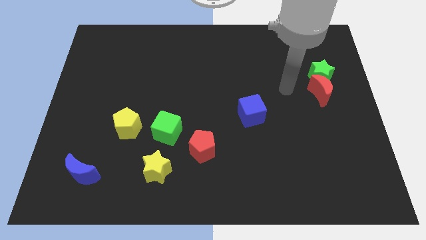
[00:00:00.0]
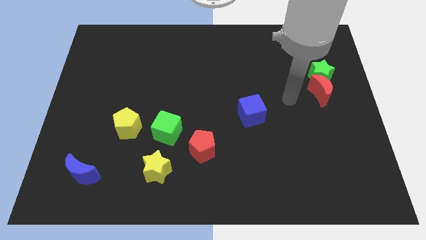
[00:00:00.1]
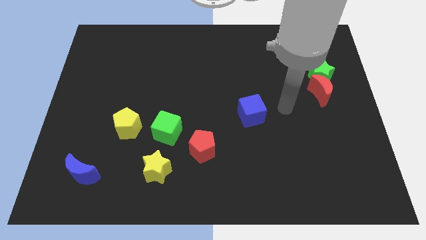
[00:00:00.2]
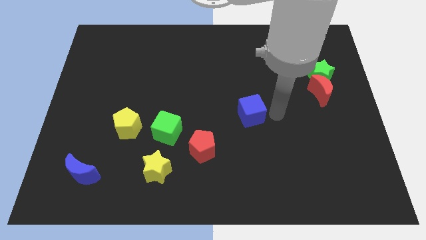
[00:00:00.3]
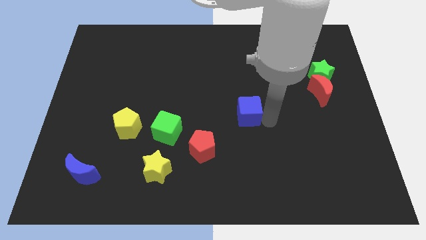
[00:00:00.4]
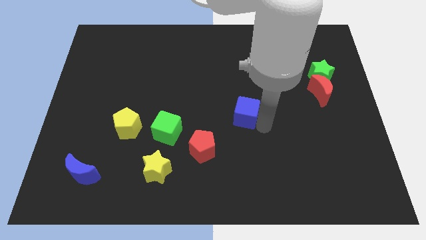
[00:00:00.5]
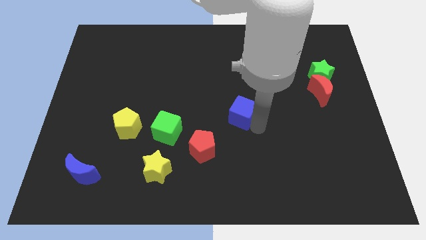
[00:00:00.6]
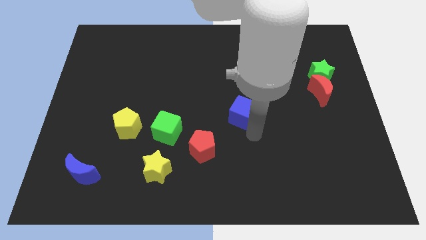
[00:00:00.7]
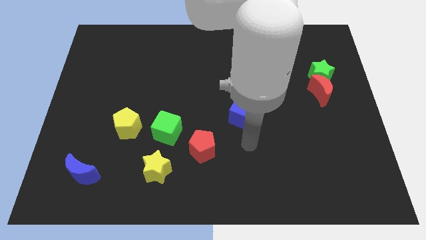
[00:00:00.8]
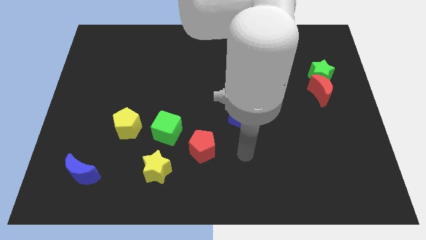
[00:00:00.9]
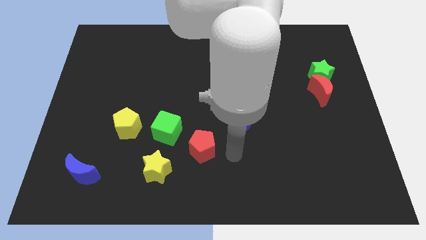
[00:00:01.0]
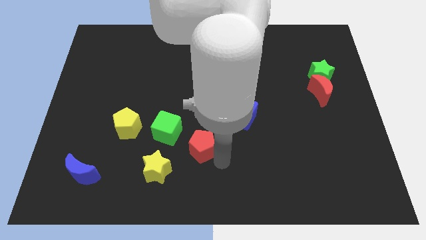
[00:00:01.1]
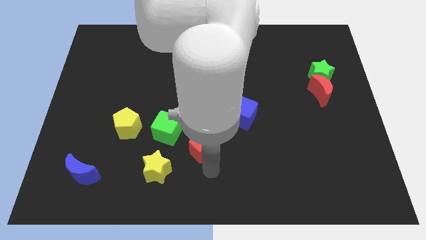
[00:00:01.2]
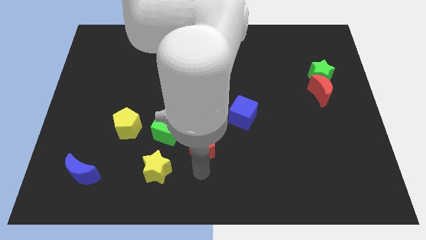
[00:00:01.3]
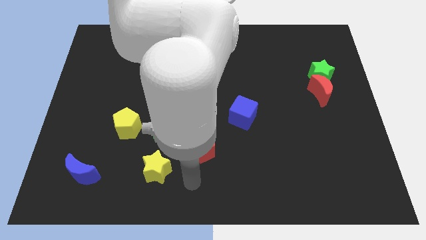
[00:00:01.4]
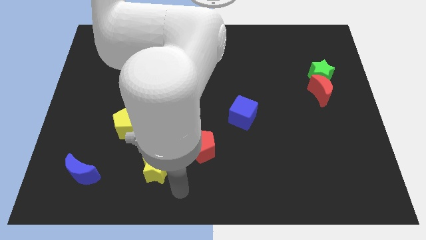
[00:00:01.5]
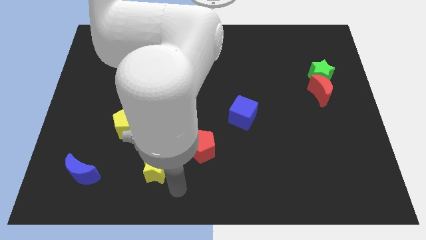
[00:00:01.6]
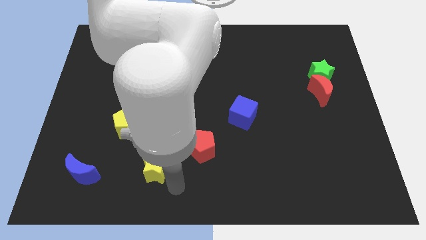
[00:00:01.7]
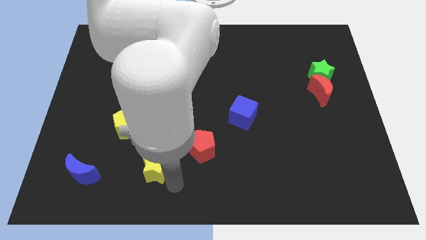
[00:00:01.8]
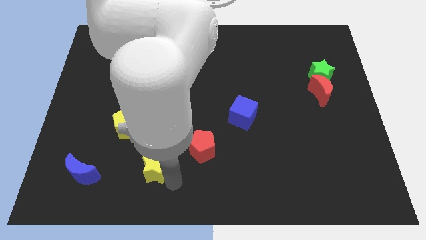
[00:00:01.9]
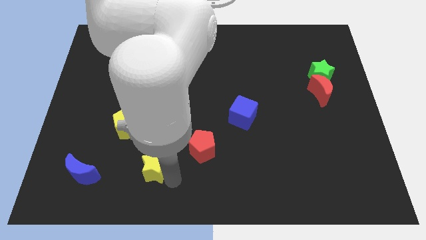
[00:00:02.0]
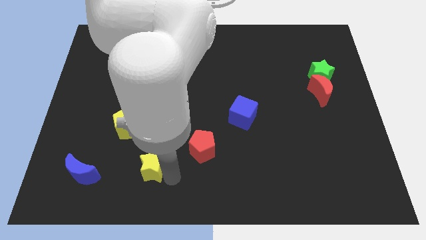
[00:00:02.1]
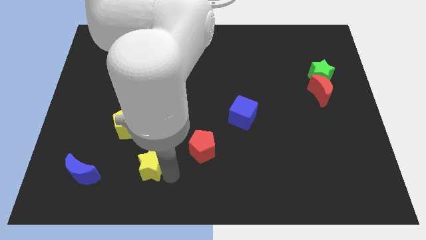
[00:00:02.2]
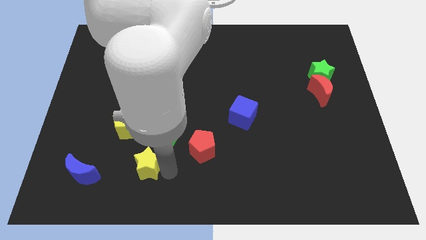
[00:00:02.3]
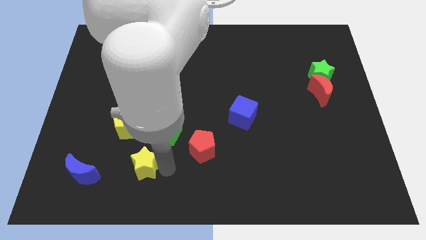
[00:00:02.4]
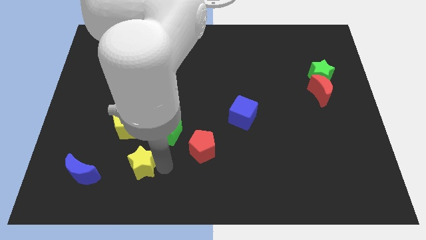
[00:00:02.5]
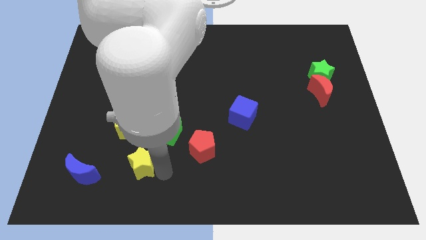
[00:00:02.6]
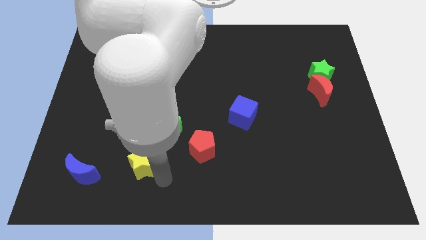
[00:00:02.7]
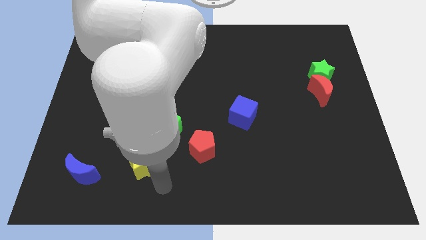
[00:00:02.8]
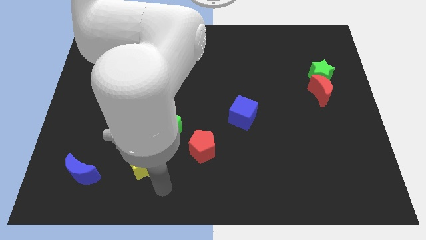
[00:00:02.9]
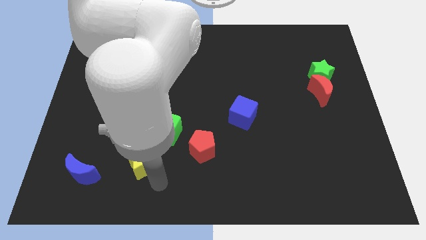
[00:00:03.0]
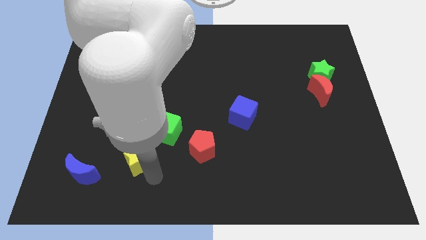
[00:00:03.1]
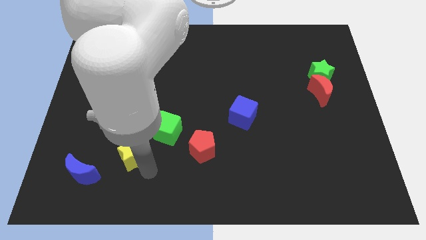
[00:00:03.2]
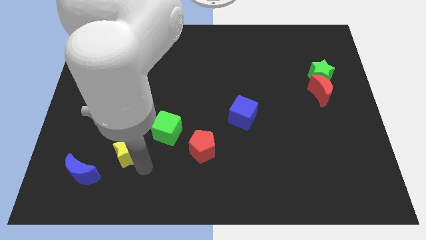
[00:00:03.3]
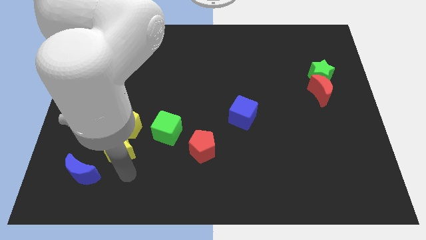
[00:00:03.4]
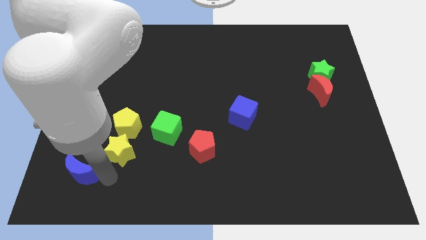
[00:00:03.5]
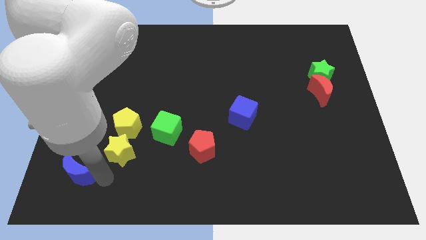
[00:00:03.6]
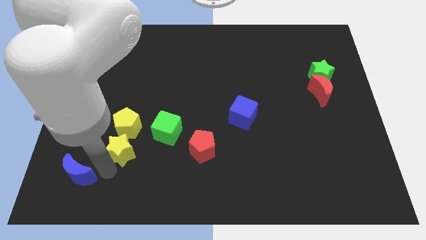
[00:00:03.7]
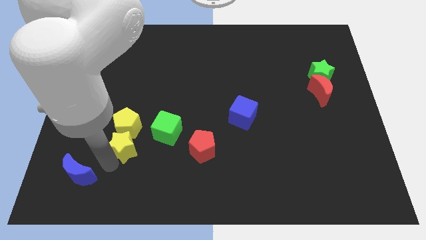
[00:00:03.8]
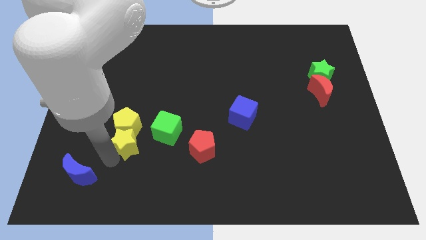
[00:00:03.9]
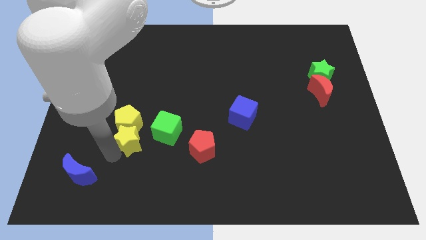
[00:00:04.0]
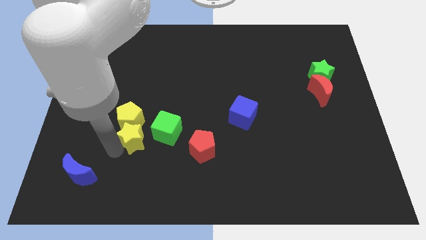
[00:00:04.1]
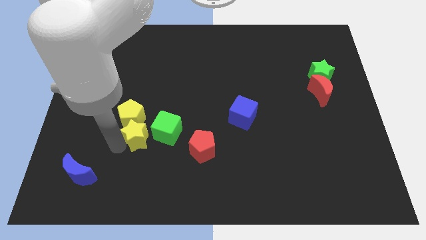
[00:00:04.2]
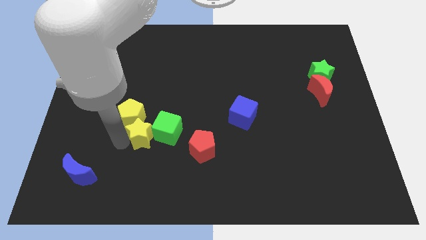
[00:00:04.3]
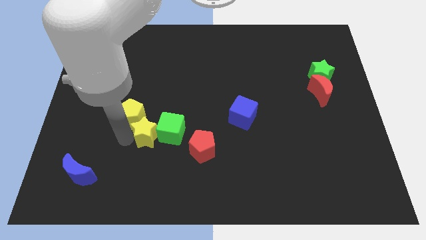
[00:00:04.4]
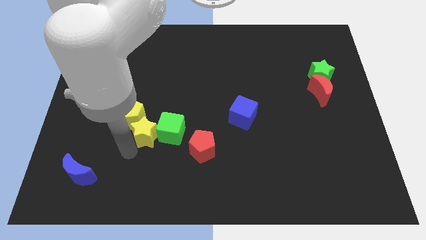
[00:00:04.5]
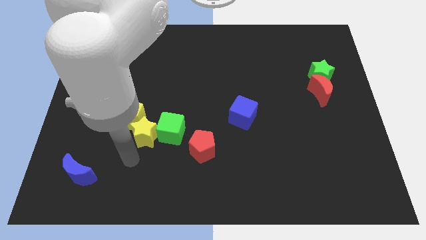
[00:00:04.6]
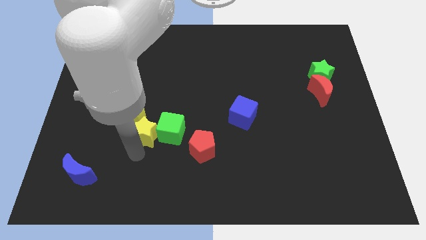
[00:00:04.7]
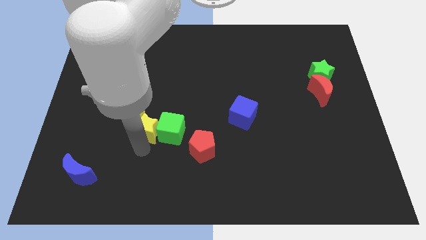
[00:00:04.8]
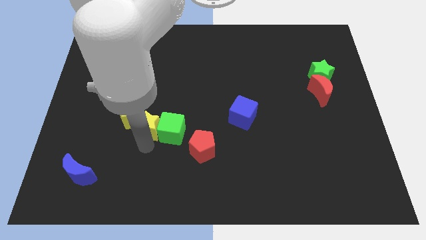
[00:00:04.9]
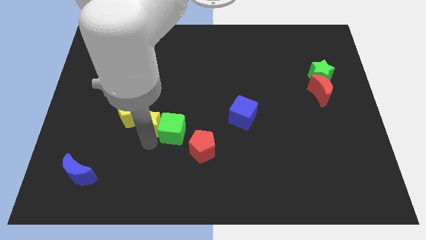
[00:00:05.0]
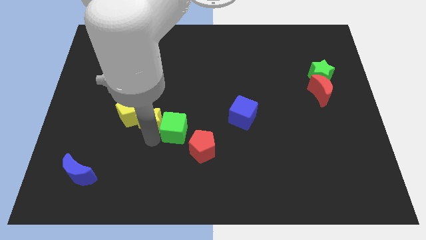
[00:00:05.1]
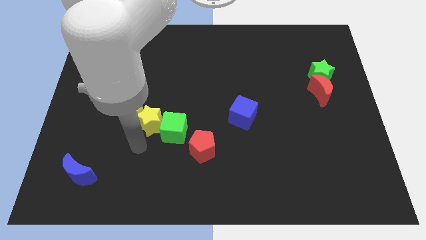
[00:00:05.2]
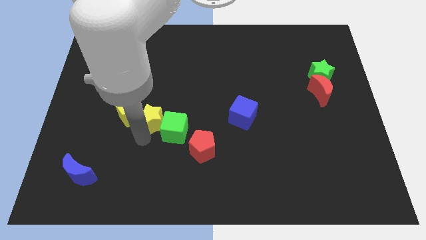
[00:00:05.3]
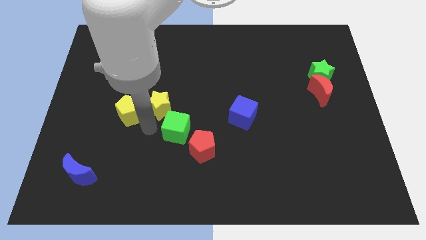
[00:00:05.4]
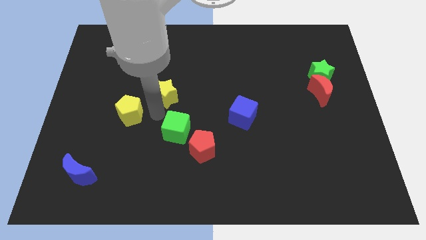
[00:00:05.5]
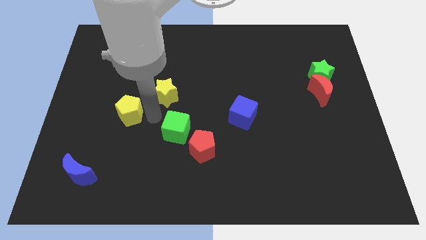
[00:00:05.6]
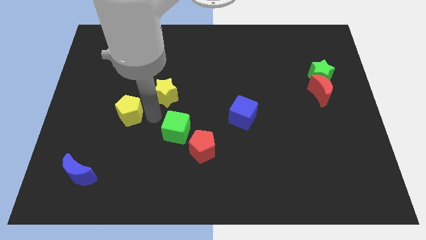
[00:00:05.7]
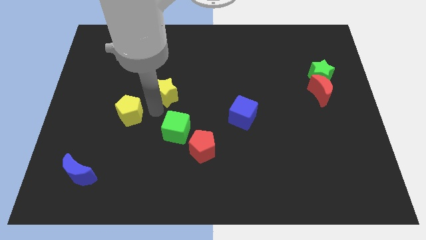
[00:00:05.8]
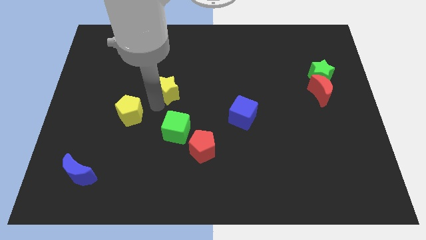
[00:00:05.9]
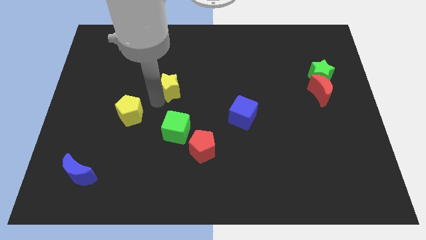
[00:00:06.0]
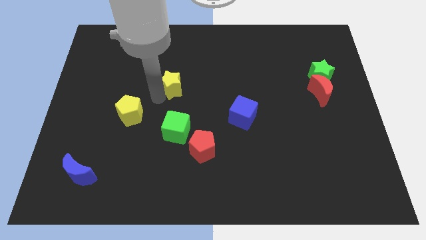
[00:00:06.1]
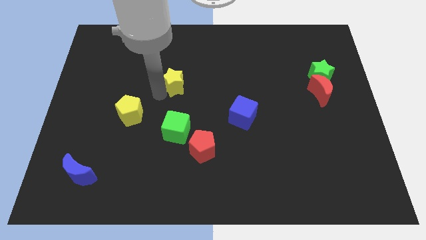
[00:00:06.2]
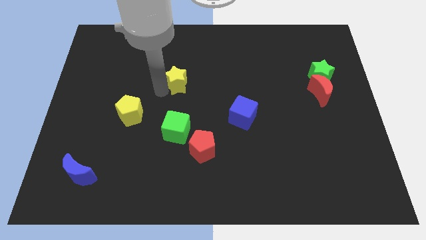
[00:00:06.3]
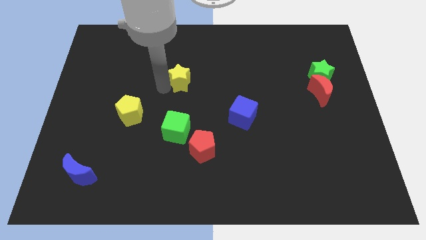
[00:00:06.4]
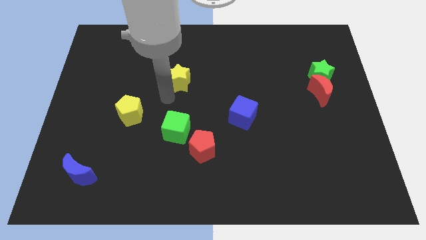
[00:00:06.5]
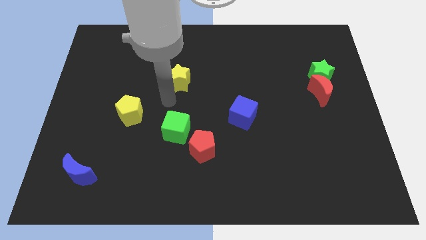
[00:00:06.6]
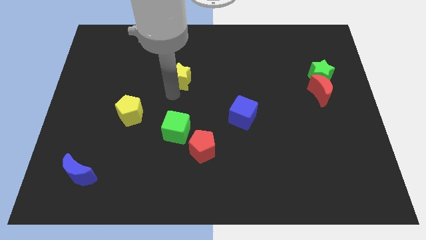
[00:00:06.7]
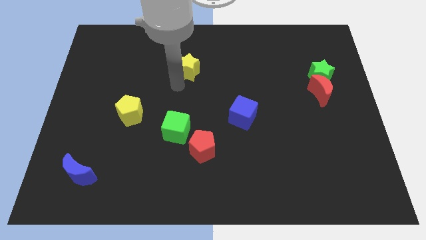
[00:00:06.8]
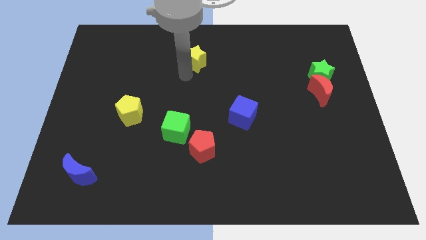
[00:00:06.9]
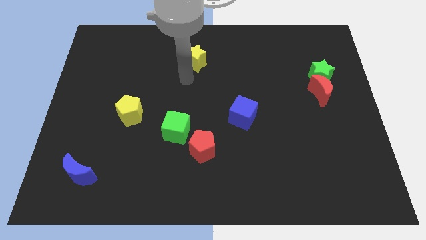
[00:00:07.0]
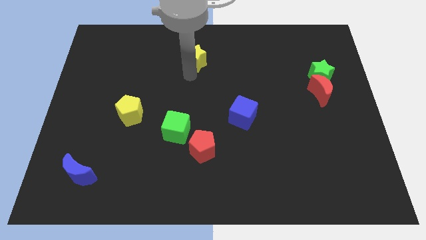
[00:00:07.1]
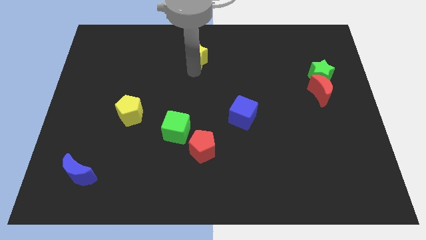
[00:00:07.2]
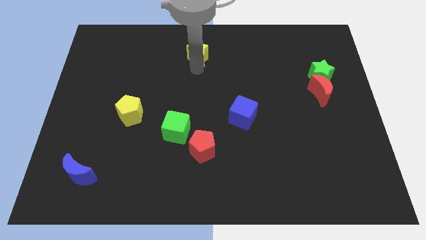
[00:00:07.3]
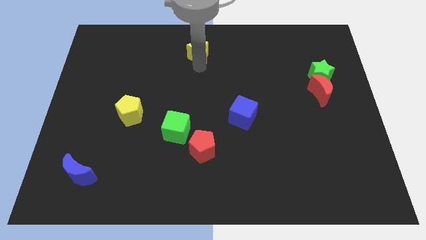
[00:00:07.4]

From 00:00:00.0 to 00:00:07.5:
push the yellow star to the top side
